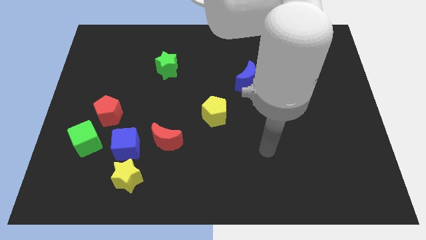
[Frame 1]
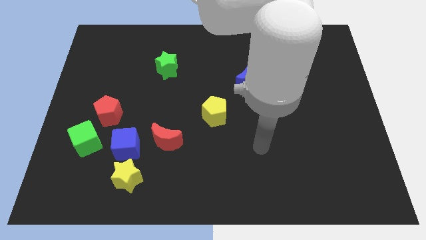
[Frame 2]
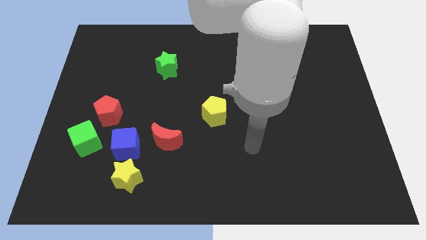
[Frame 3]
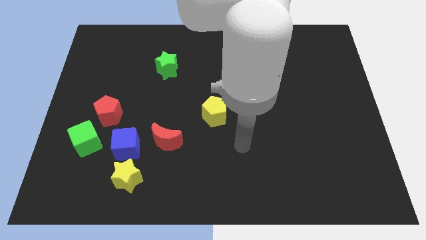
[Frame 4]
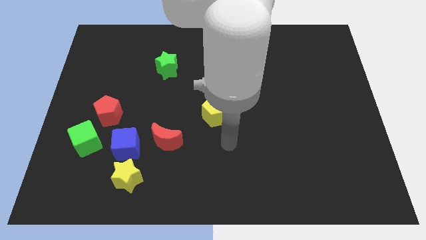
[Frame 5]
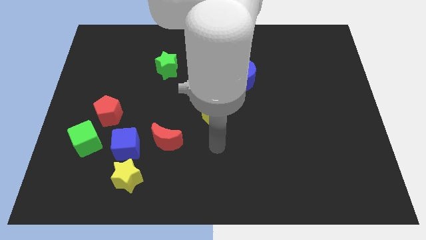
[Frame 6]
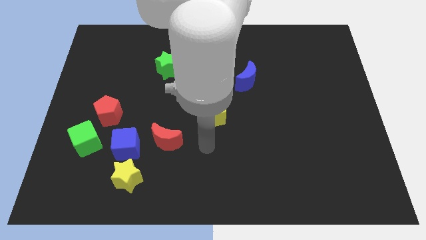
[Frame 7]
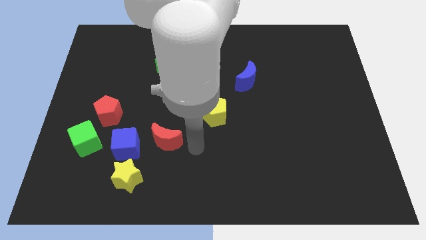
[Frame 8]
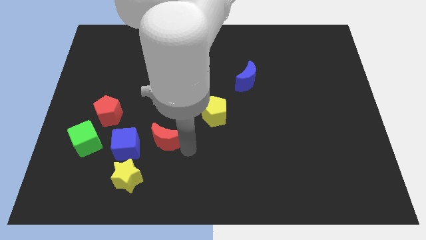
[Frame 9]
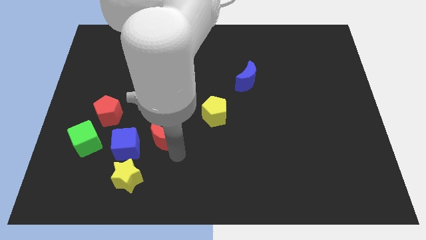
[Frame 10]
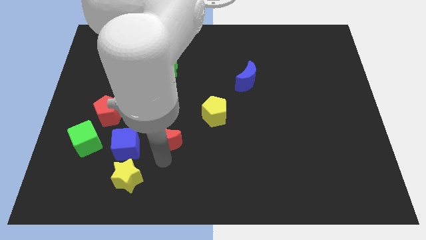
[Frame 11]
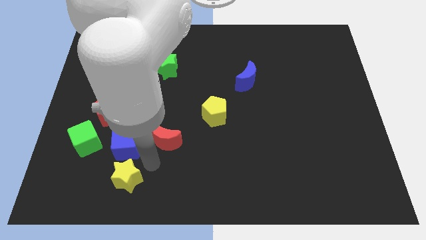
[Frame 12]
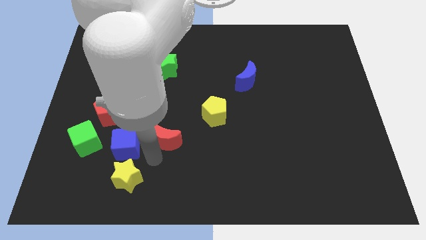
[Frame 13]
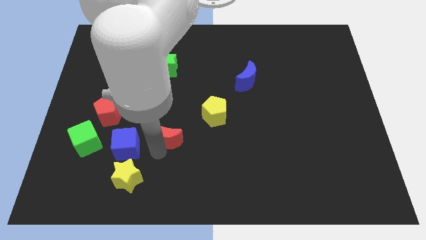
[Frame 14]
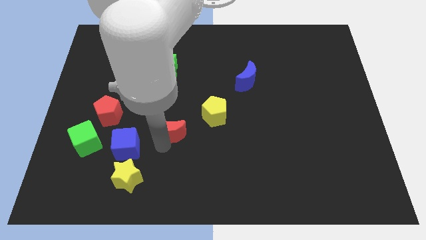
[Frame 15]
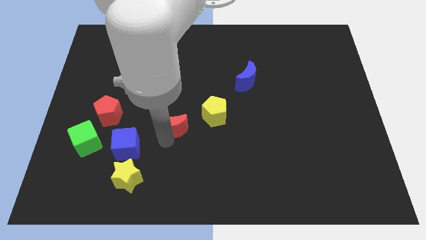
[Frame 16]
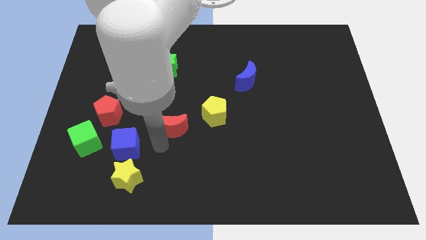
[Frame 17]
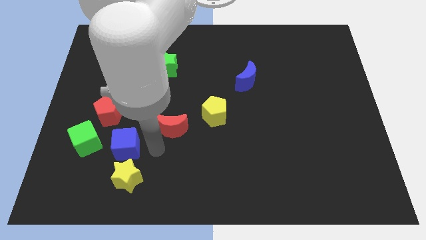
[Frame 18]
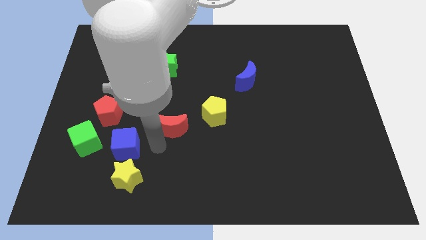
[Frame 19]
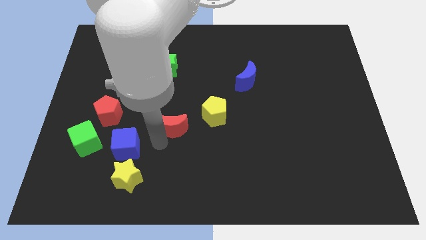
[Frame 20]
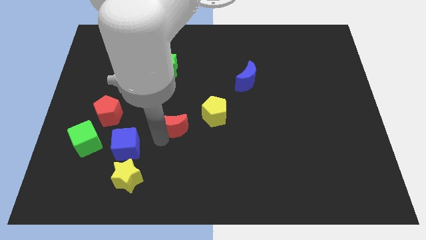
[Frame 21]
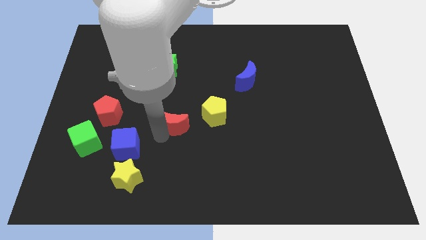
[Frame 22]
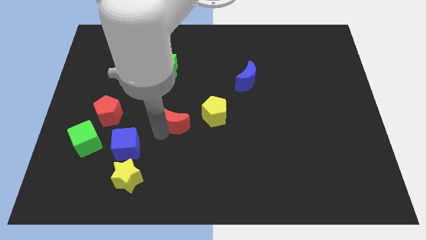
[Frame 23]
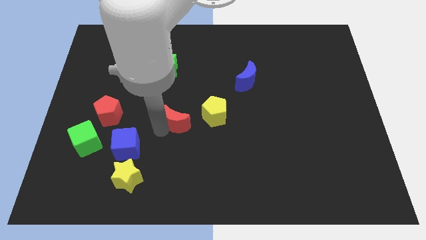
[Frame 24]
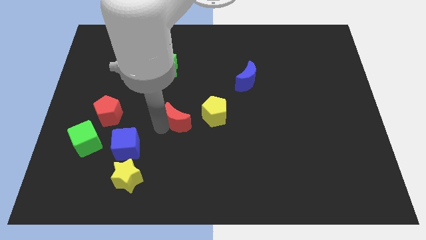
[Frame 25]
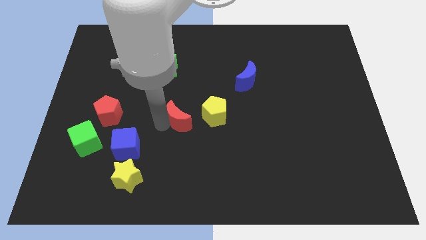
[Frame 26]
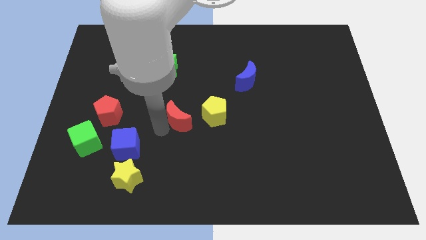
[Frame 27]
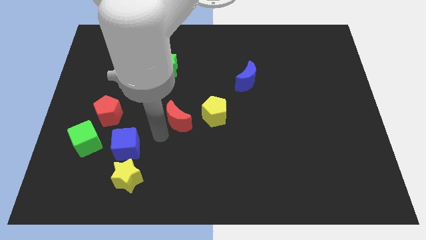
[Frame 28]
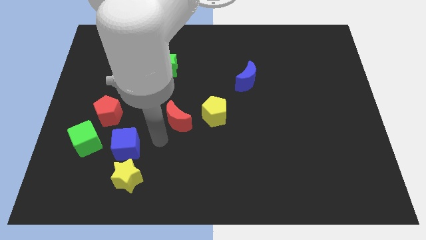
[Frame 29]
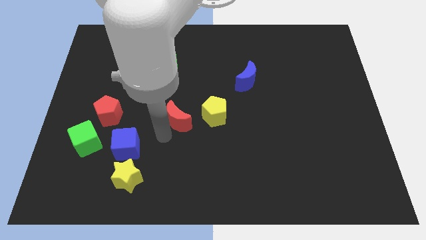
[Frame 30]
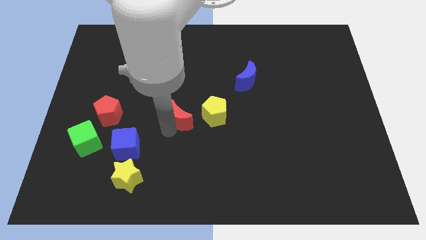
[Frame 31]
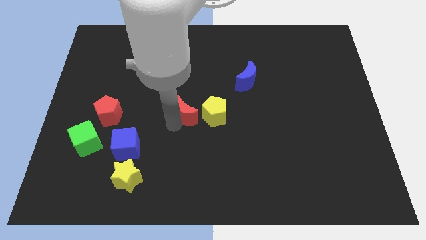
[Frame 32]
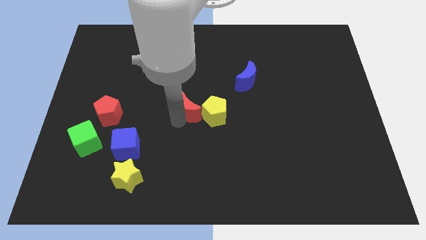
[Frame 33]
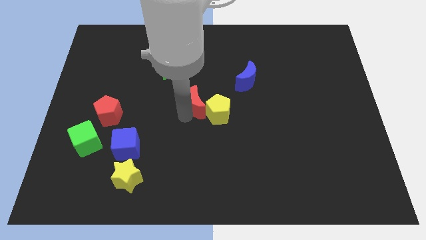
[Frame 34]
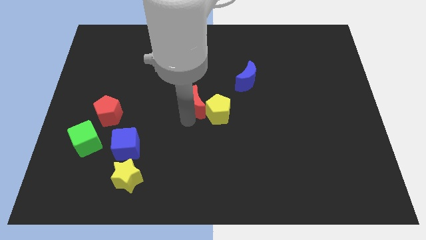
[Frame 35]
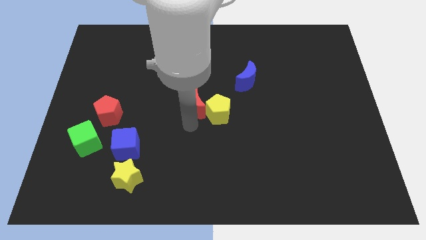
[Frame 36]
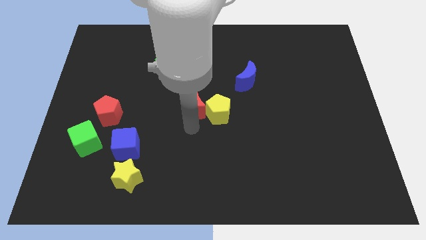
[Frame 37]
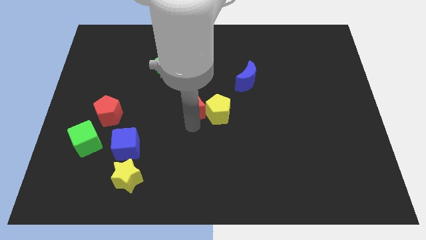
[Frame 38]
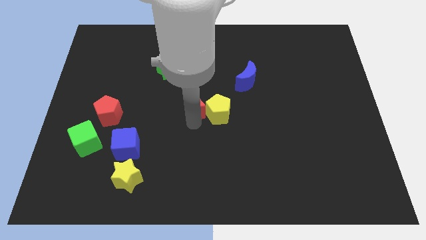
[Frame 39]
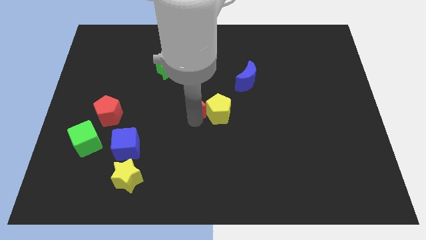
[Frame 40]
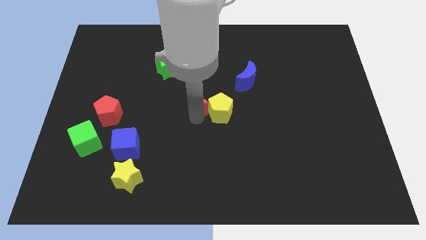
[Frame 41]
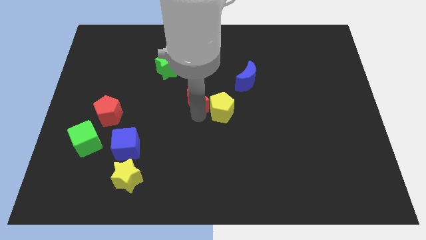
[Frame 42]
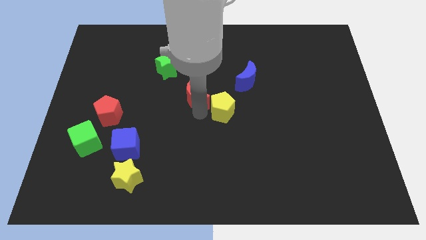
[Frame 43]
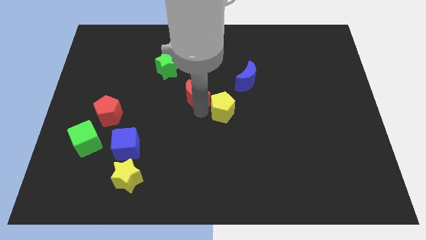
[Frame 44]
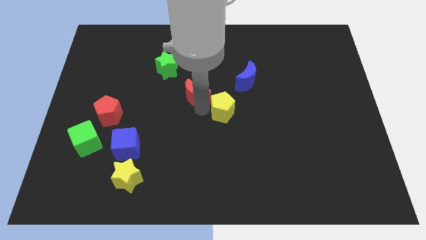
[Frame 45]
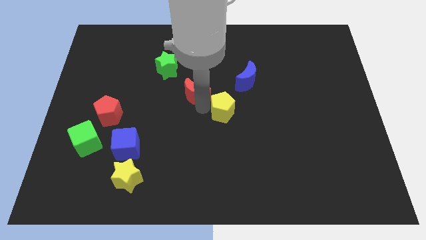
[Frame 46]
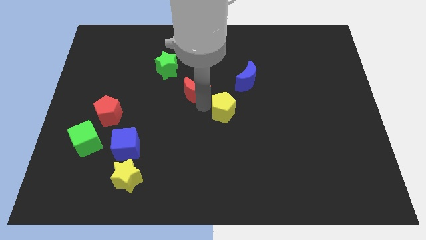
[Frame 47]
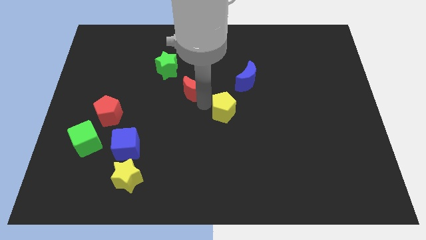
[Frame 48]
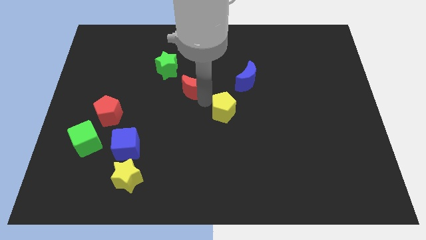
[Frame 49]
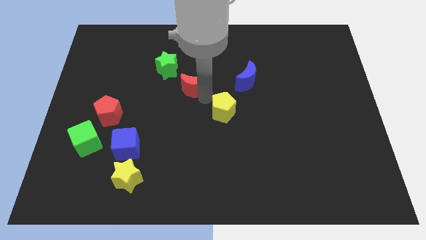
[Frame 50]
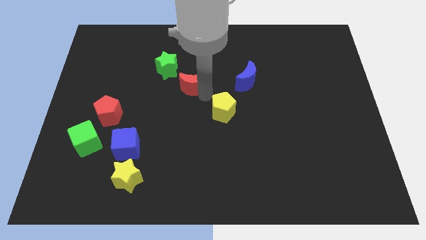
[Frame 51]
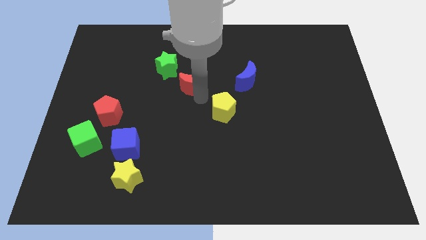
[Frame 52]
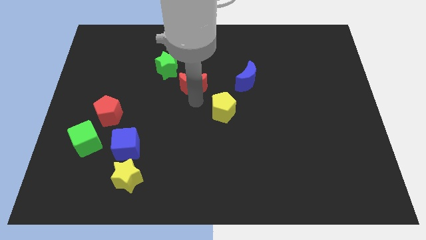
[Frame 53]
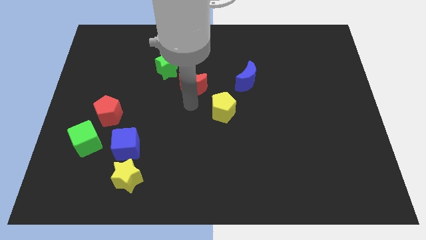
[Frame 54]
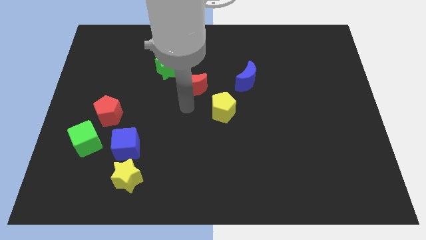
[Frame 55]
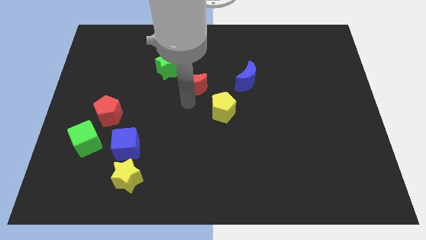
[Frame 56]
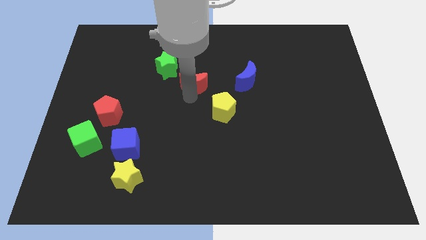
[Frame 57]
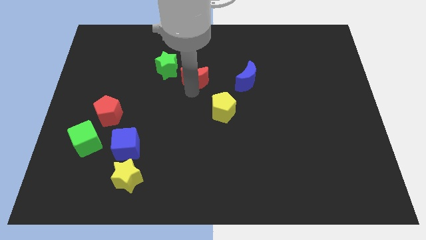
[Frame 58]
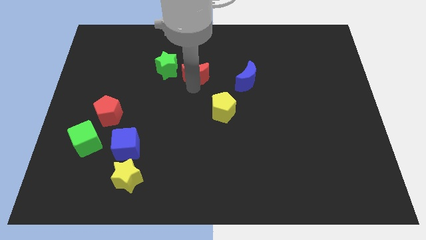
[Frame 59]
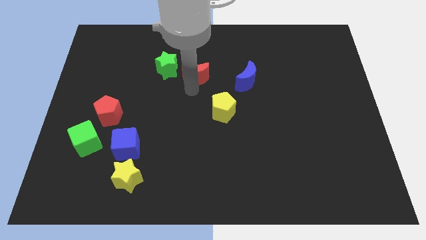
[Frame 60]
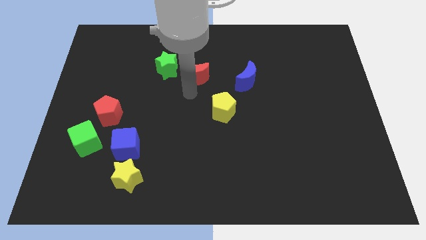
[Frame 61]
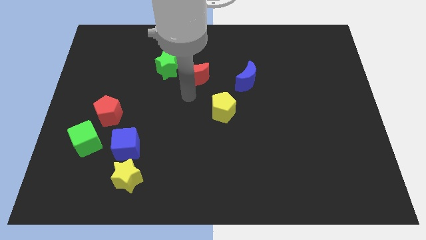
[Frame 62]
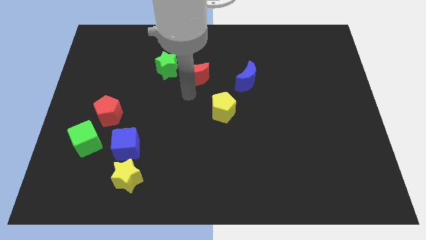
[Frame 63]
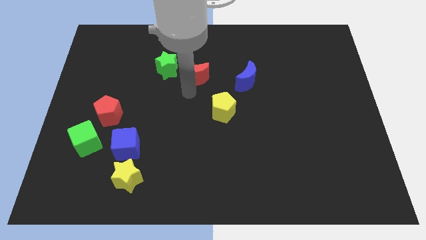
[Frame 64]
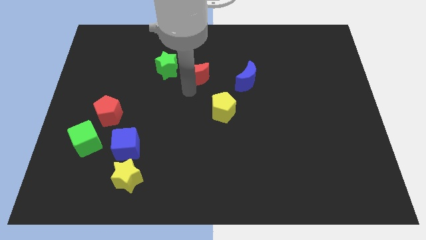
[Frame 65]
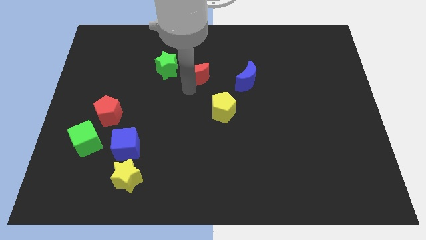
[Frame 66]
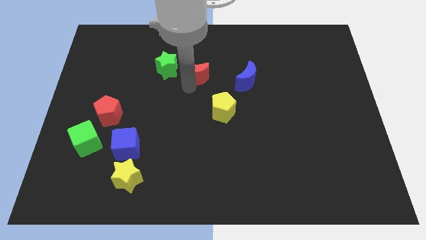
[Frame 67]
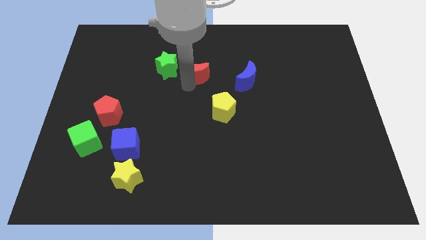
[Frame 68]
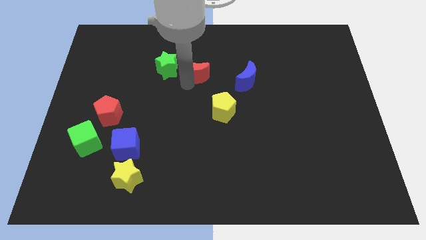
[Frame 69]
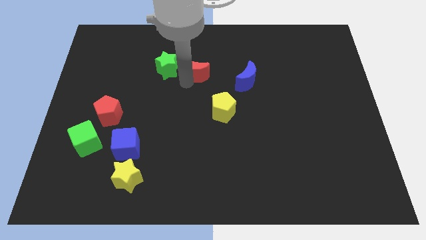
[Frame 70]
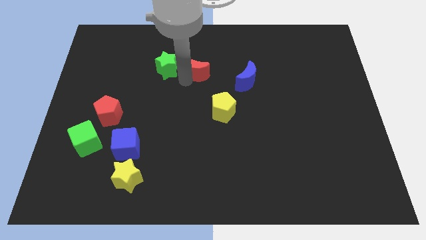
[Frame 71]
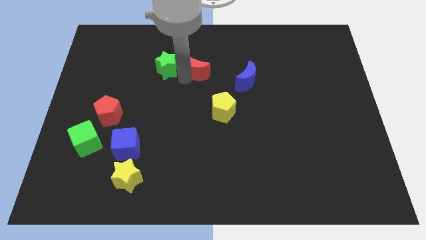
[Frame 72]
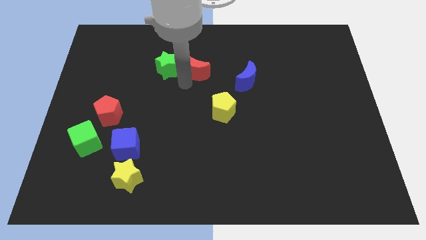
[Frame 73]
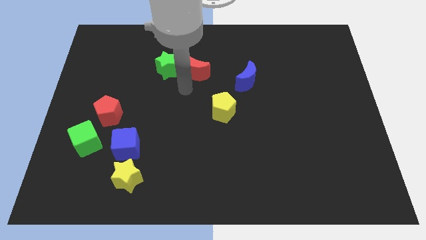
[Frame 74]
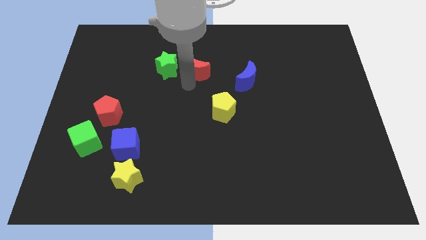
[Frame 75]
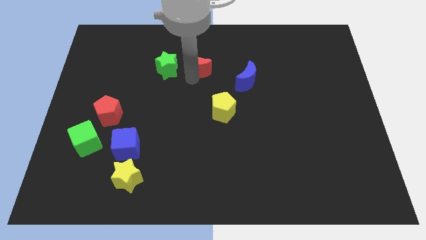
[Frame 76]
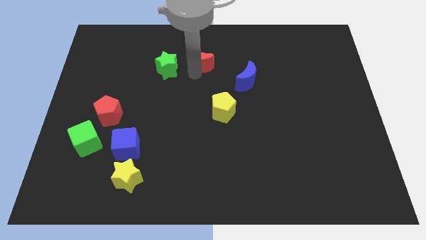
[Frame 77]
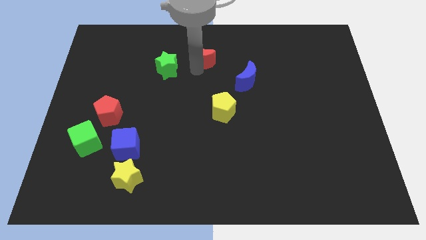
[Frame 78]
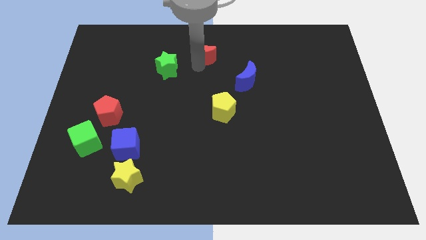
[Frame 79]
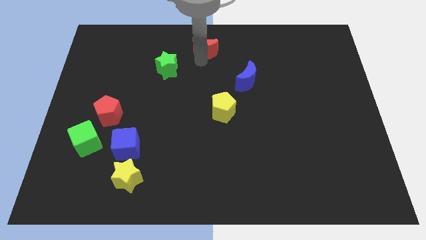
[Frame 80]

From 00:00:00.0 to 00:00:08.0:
move the red moon to the towards your base
